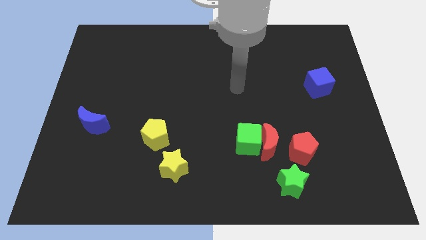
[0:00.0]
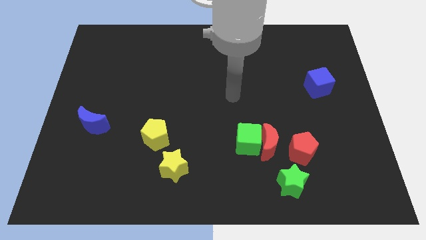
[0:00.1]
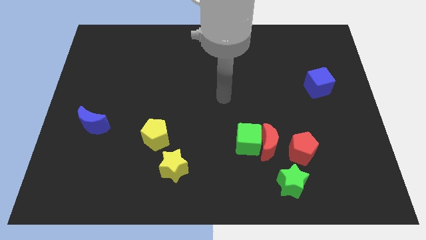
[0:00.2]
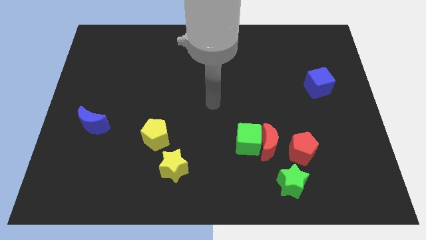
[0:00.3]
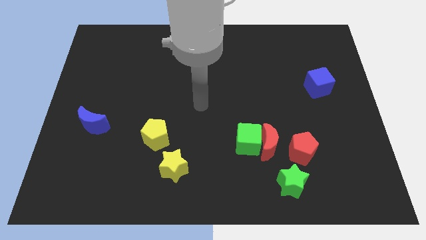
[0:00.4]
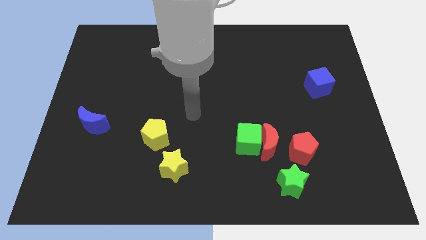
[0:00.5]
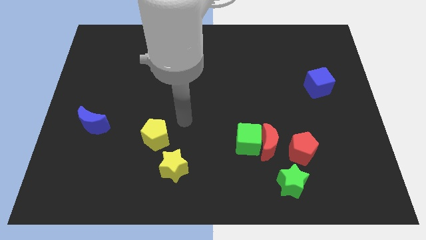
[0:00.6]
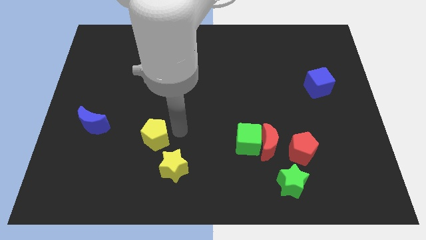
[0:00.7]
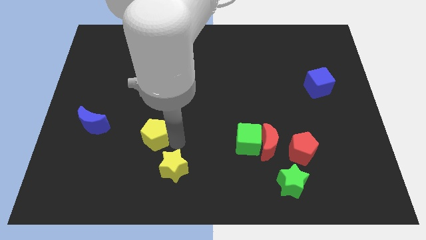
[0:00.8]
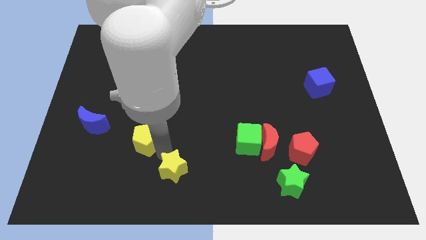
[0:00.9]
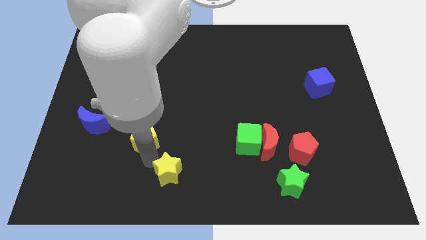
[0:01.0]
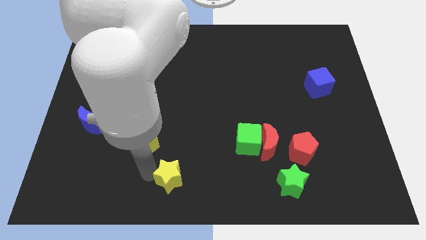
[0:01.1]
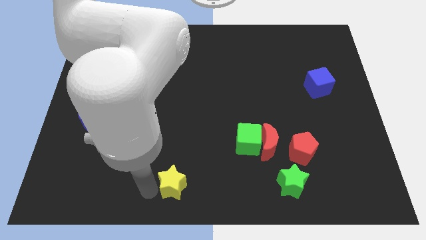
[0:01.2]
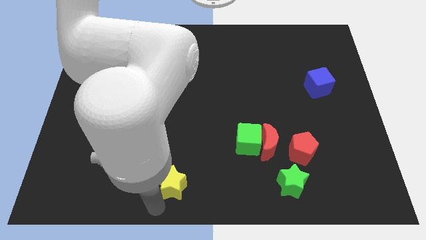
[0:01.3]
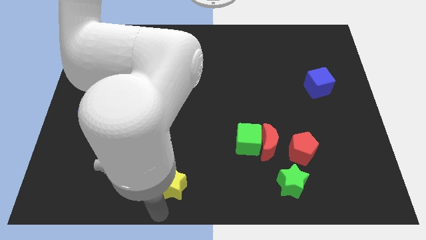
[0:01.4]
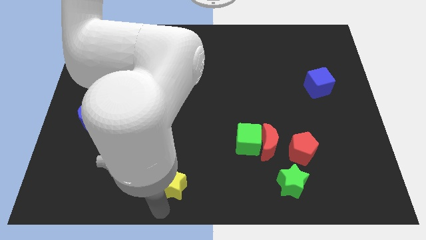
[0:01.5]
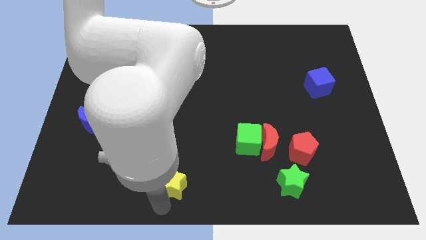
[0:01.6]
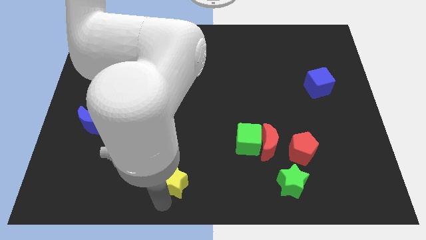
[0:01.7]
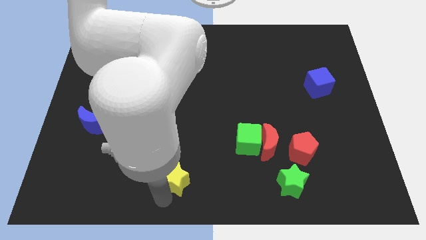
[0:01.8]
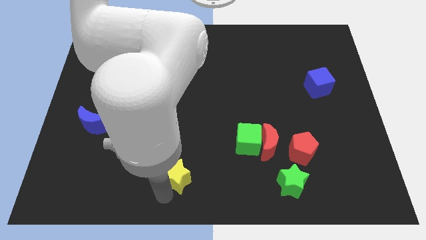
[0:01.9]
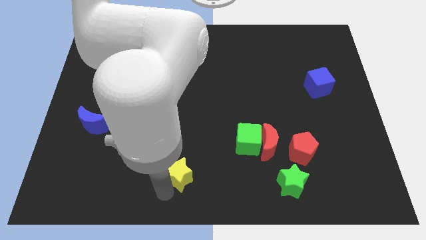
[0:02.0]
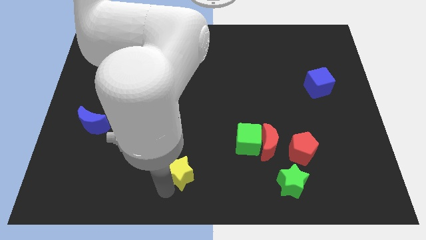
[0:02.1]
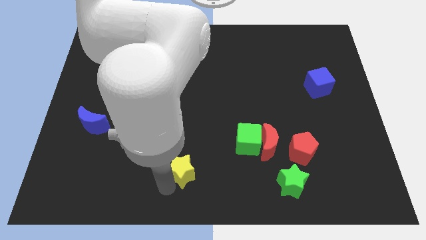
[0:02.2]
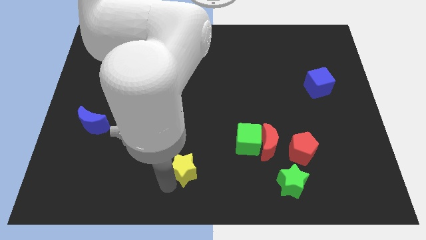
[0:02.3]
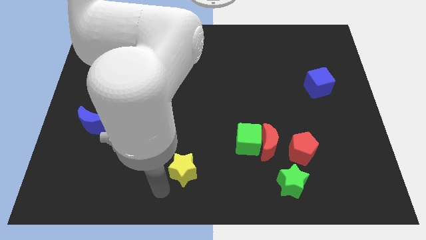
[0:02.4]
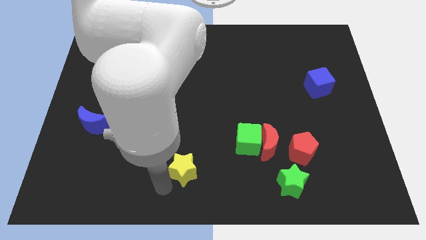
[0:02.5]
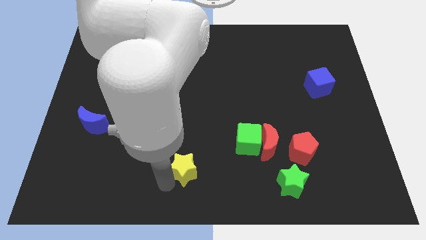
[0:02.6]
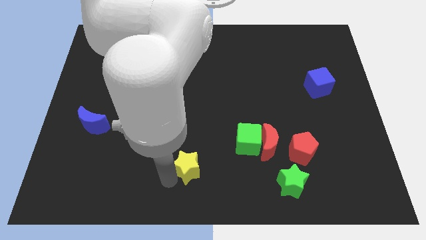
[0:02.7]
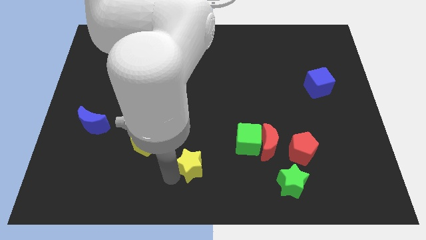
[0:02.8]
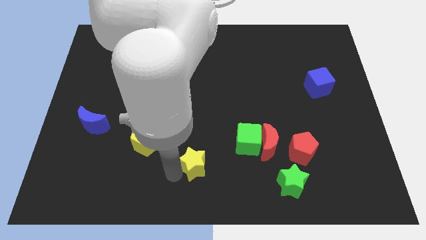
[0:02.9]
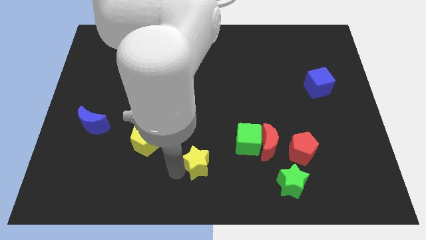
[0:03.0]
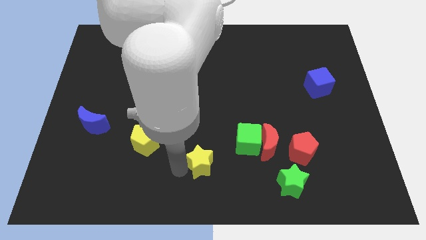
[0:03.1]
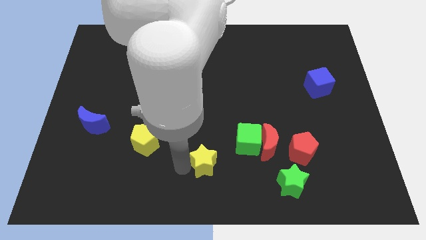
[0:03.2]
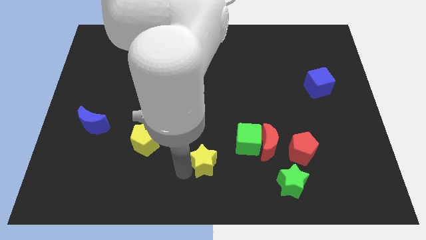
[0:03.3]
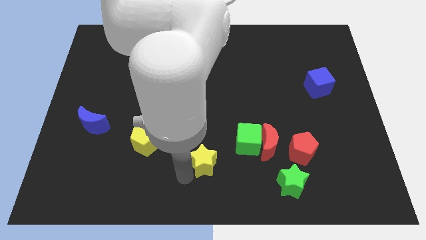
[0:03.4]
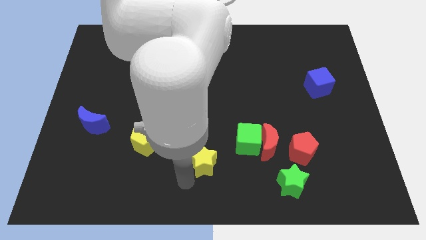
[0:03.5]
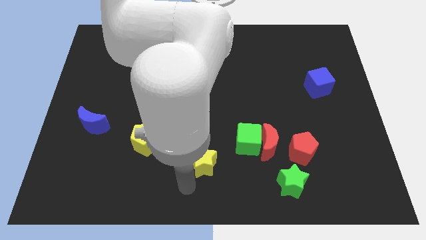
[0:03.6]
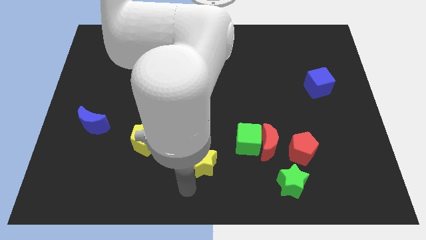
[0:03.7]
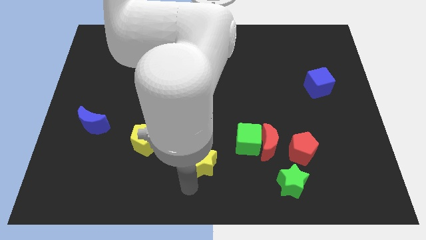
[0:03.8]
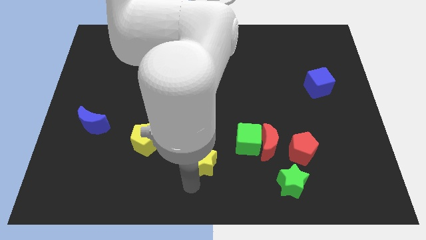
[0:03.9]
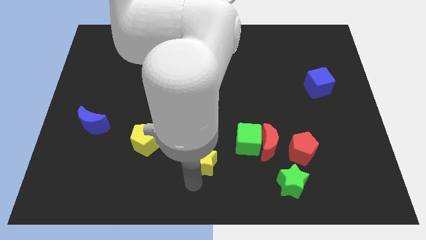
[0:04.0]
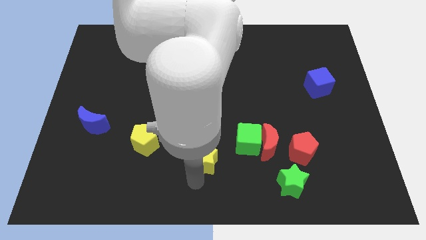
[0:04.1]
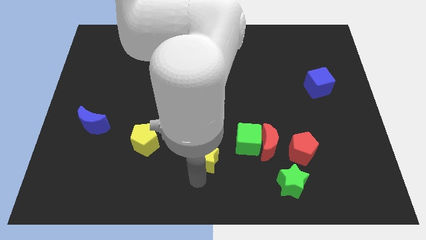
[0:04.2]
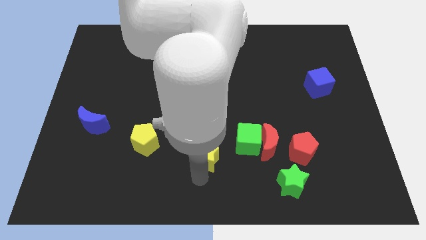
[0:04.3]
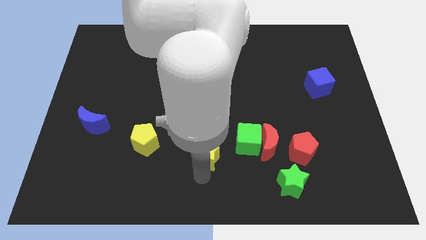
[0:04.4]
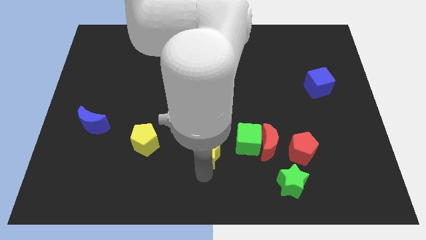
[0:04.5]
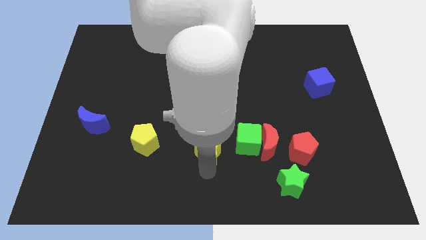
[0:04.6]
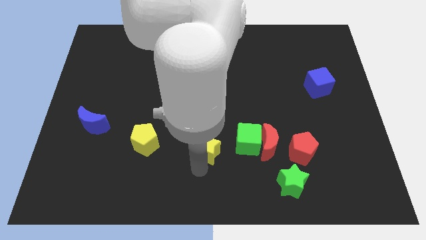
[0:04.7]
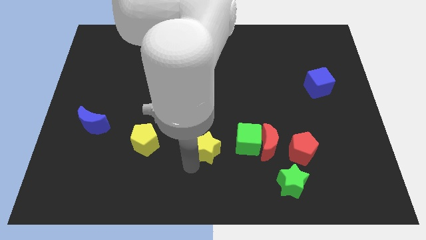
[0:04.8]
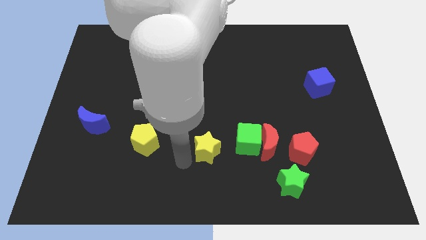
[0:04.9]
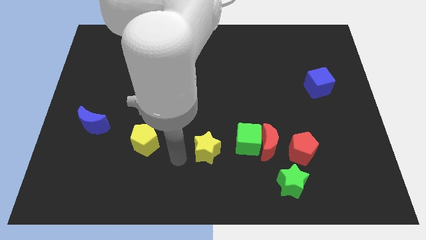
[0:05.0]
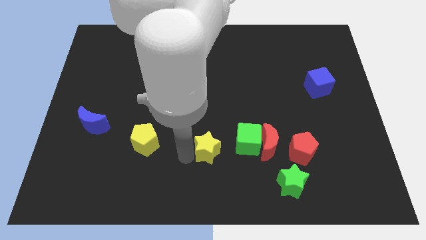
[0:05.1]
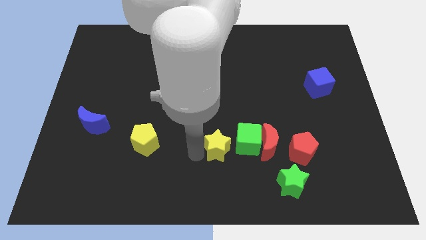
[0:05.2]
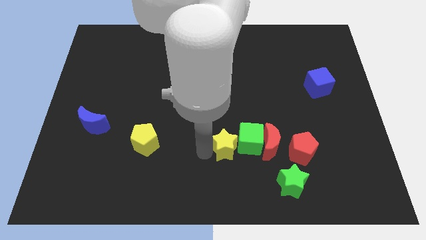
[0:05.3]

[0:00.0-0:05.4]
move the yellow star next to the green cube

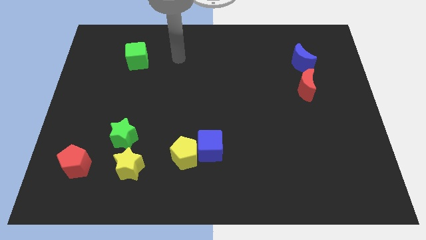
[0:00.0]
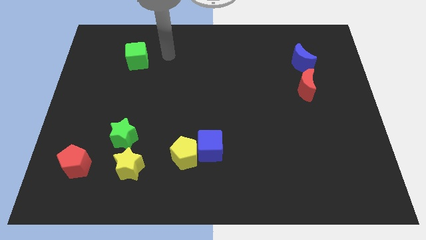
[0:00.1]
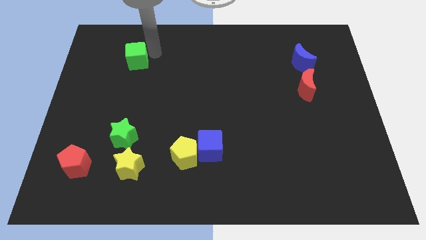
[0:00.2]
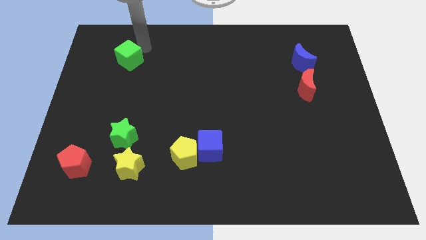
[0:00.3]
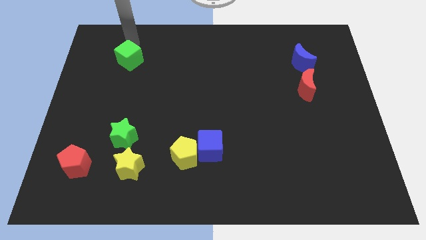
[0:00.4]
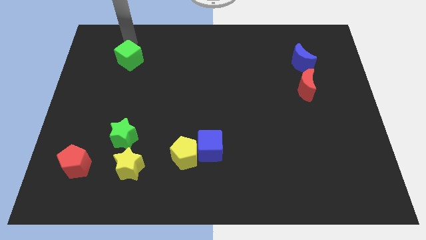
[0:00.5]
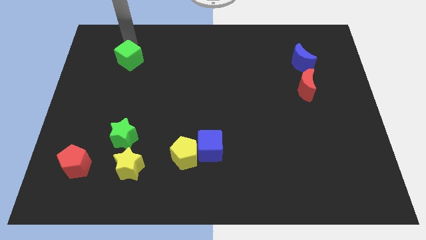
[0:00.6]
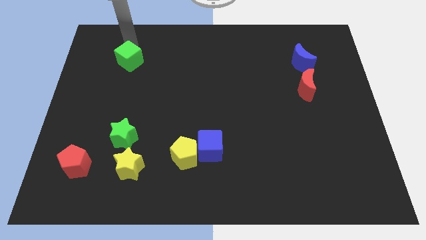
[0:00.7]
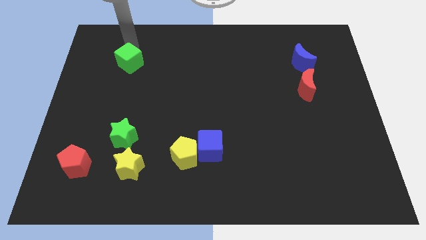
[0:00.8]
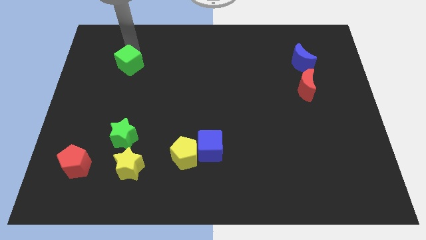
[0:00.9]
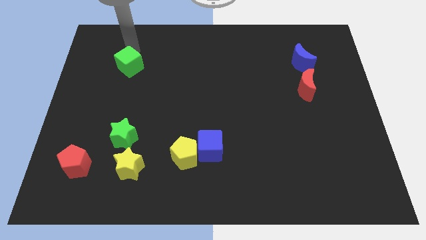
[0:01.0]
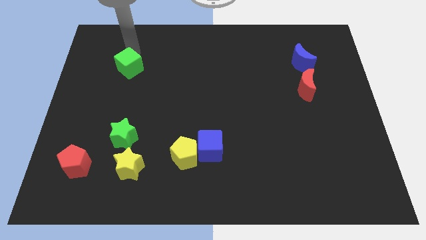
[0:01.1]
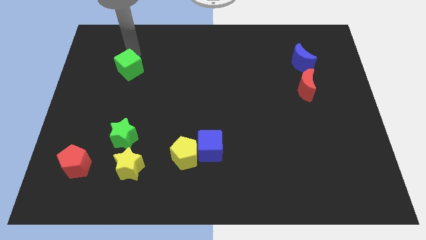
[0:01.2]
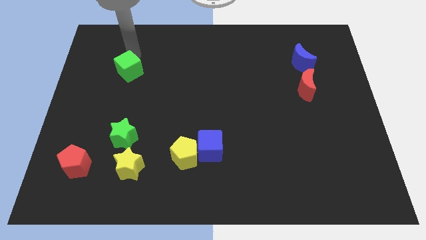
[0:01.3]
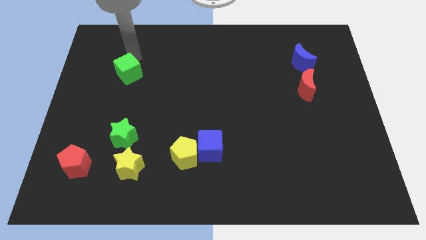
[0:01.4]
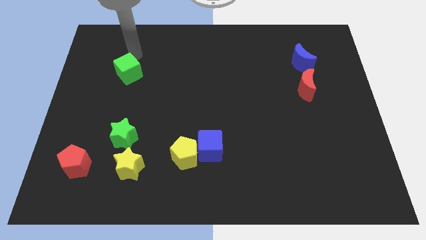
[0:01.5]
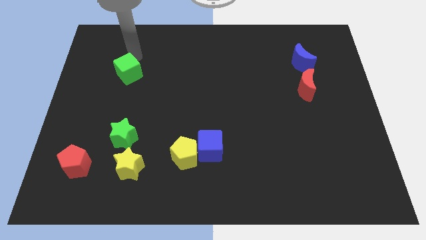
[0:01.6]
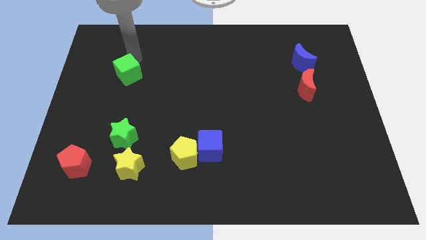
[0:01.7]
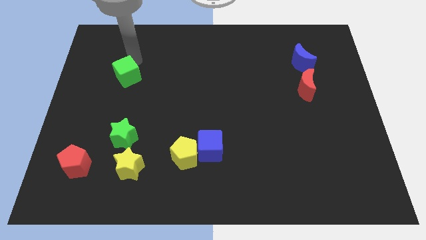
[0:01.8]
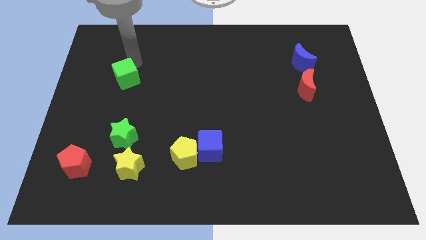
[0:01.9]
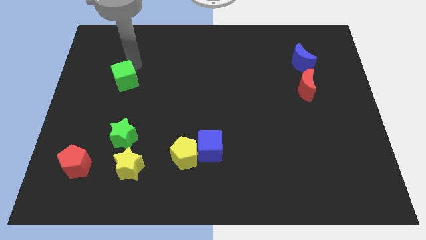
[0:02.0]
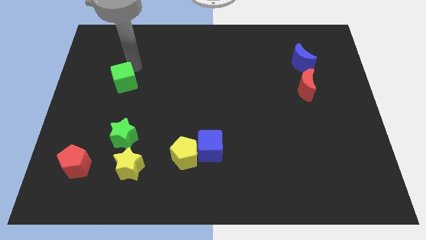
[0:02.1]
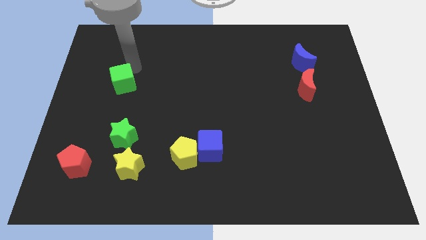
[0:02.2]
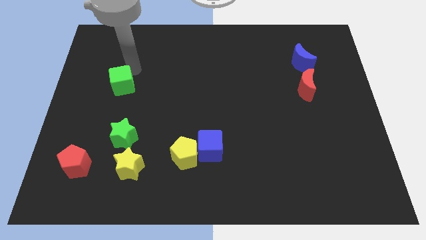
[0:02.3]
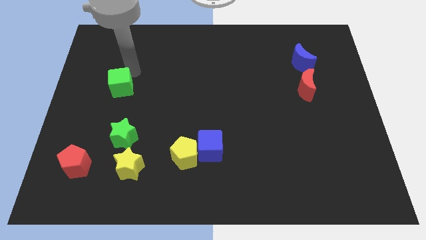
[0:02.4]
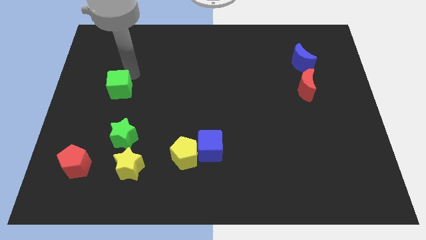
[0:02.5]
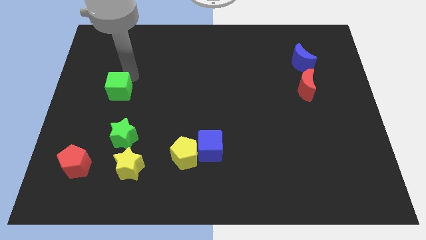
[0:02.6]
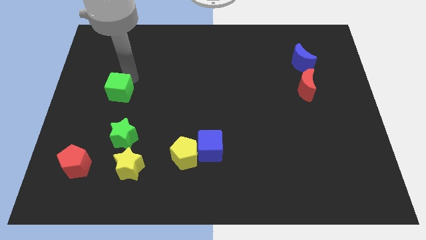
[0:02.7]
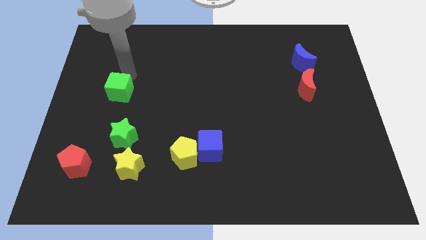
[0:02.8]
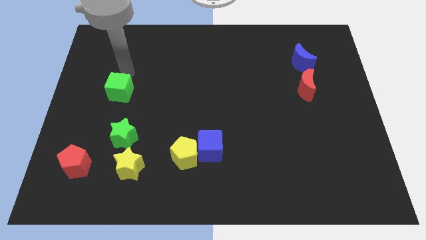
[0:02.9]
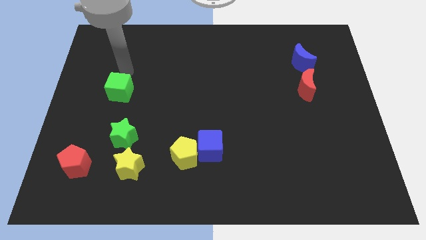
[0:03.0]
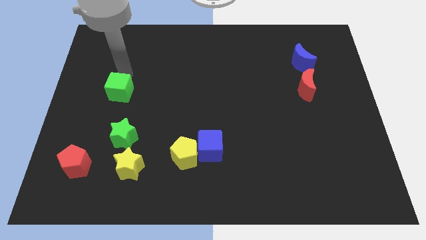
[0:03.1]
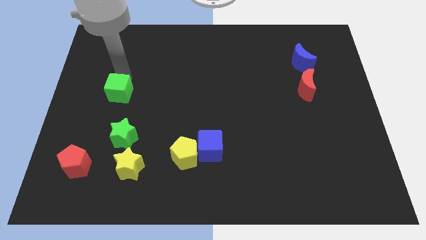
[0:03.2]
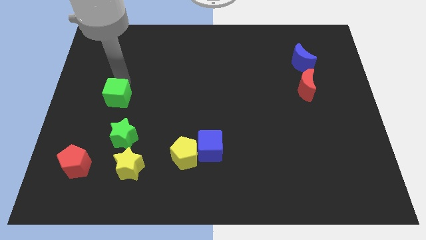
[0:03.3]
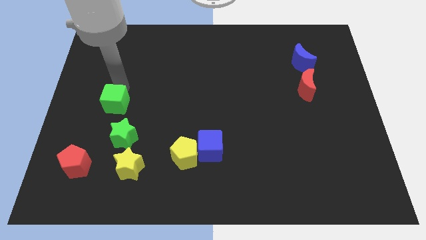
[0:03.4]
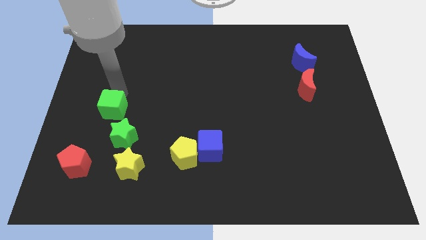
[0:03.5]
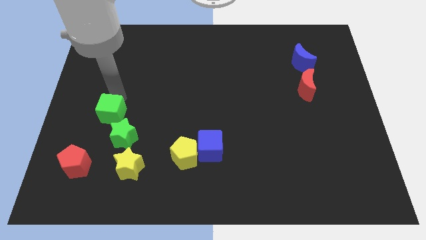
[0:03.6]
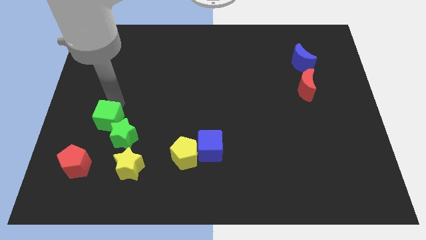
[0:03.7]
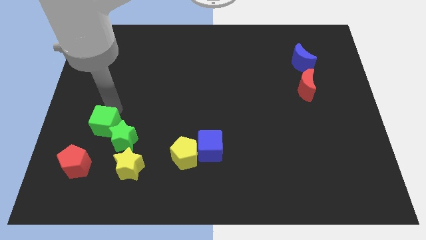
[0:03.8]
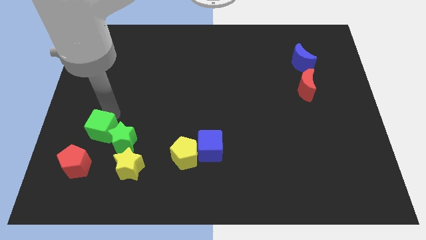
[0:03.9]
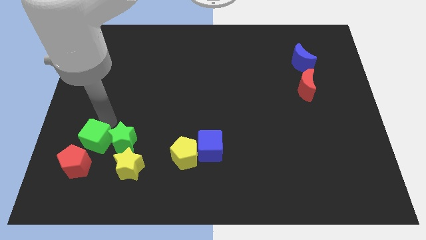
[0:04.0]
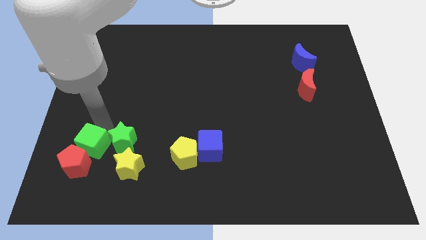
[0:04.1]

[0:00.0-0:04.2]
push the green cube close to the red pentagon
